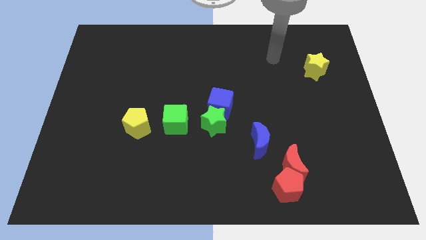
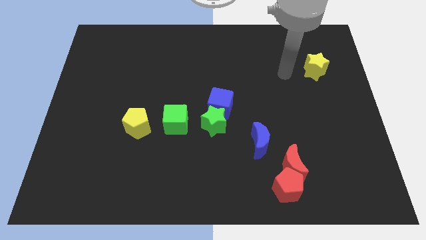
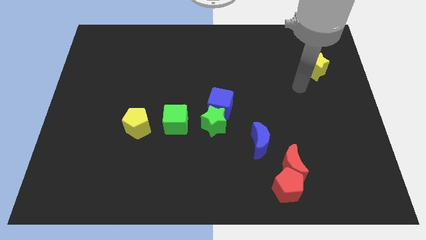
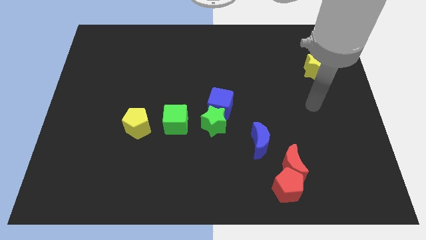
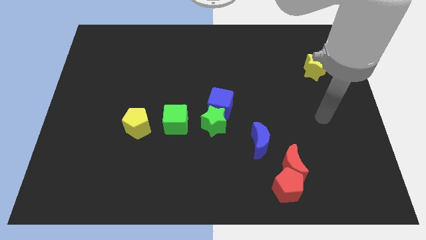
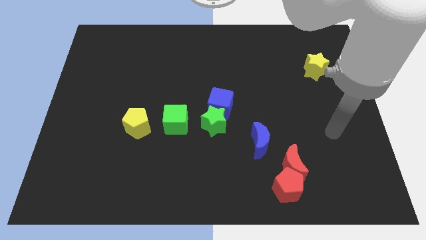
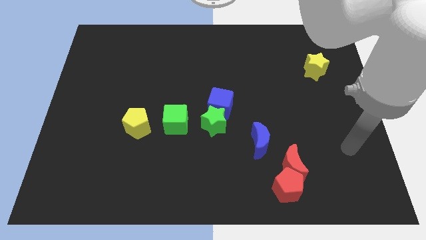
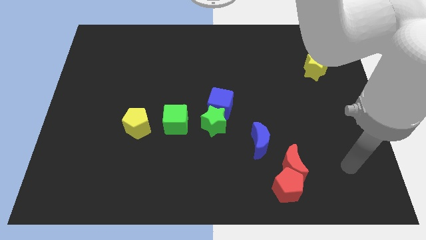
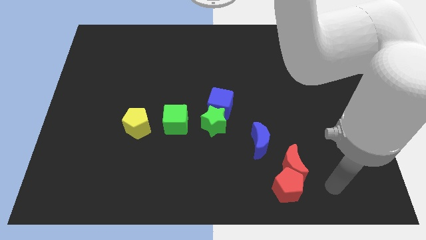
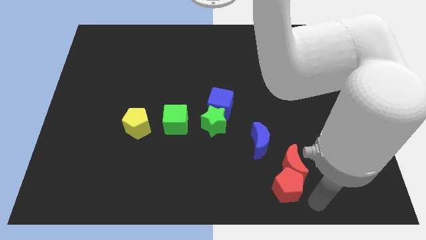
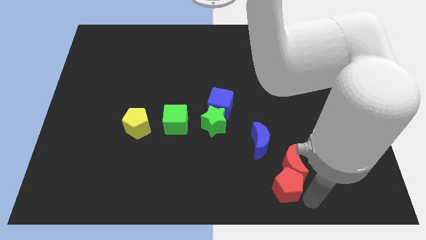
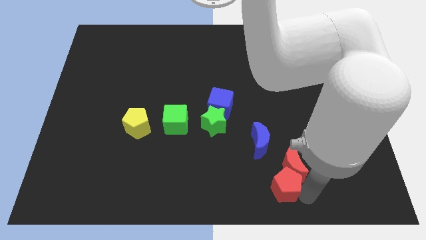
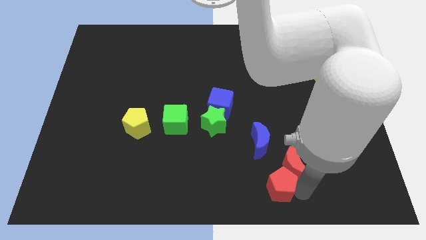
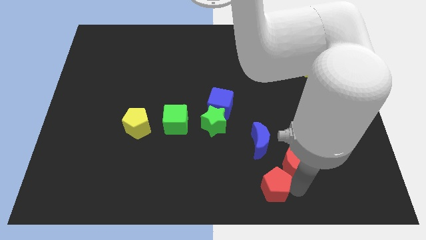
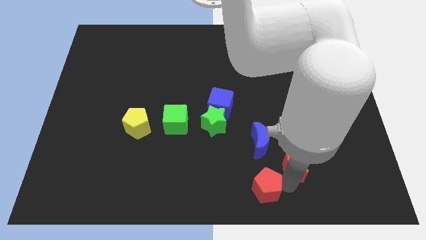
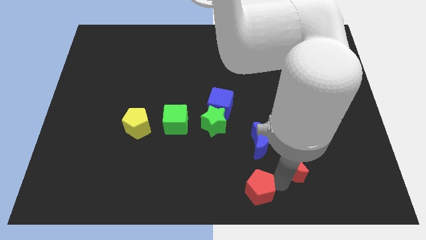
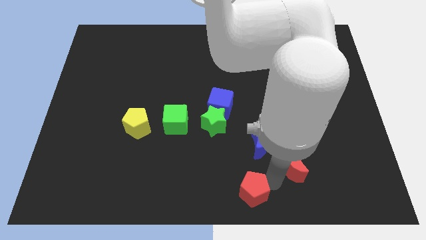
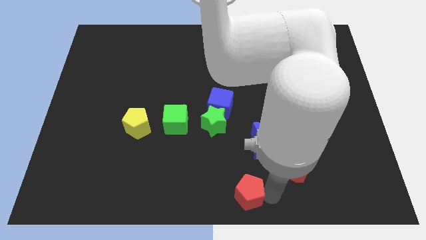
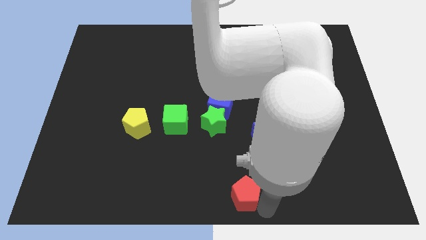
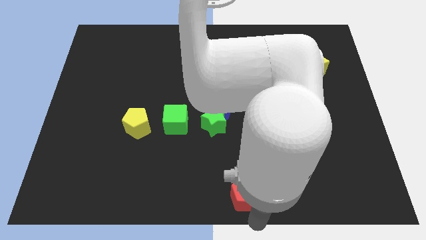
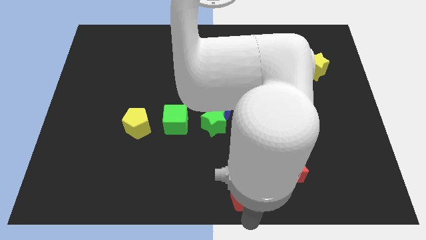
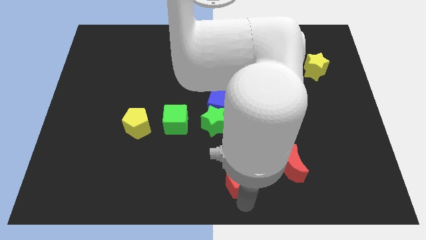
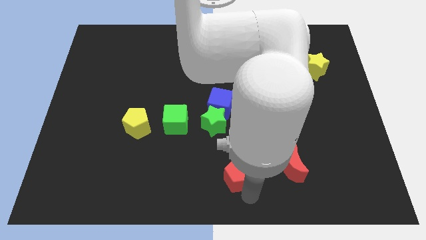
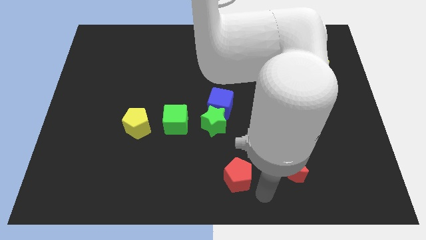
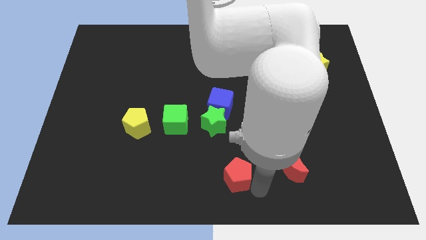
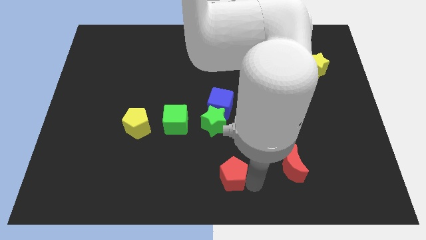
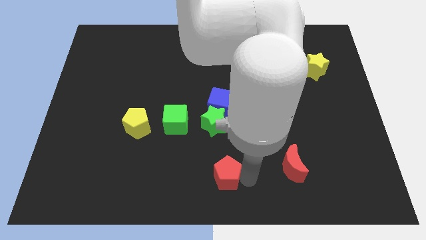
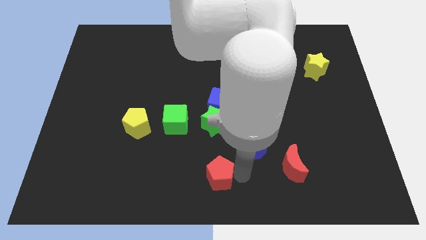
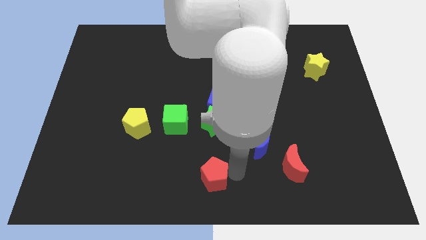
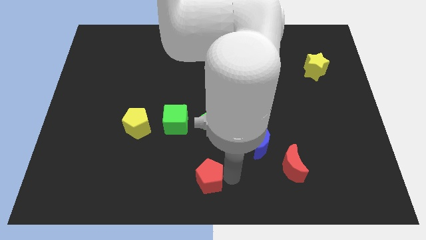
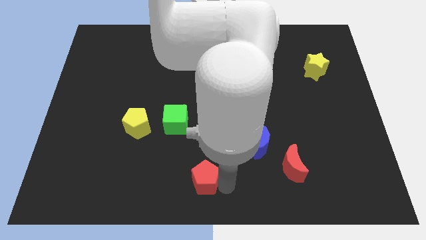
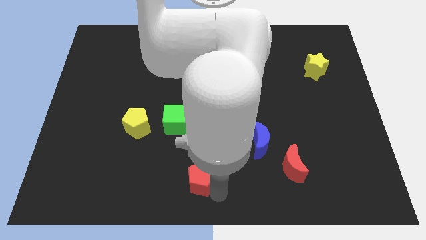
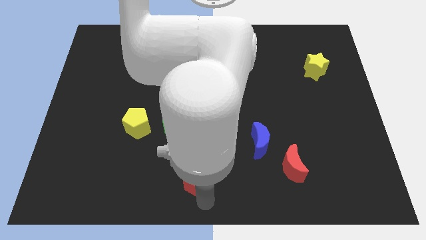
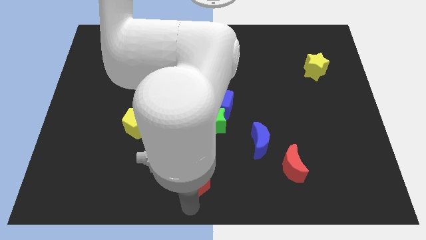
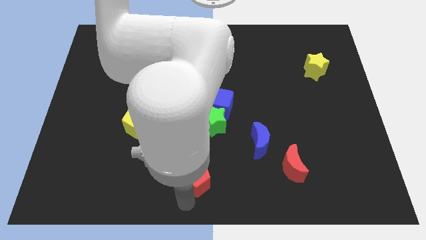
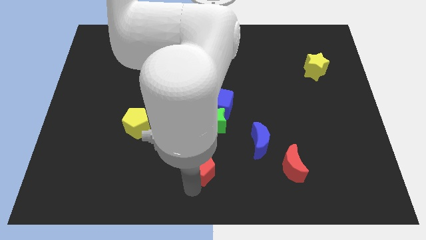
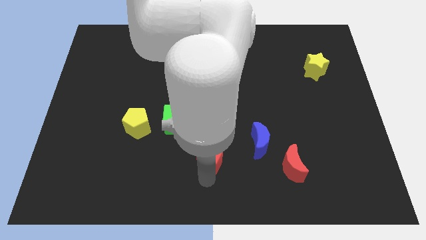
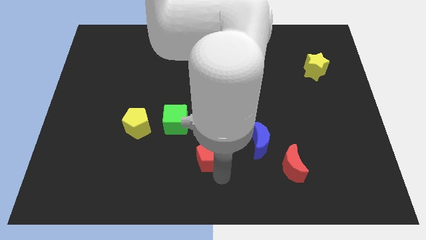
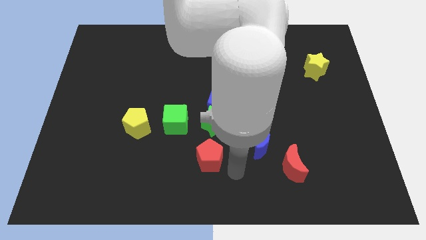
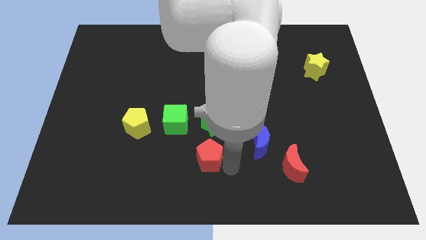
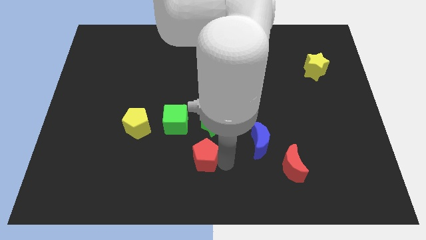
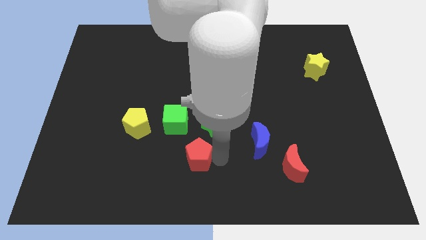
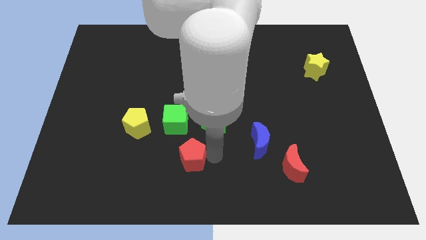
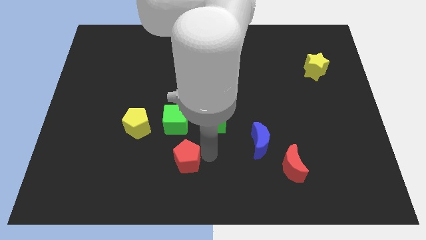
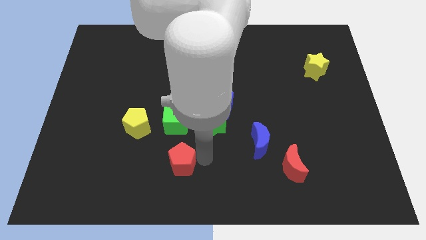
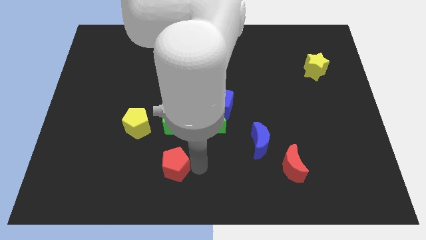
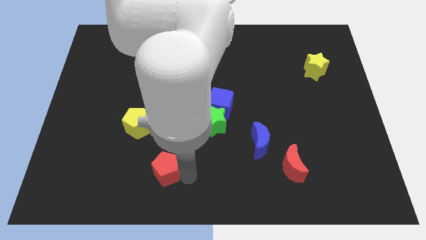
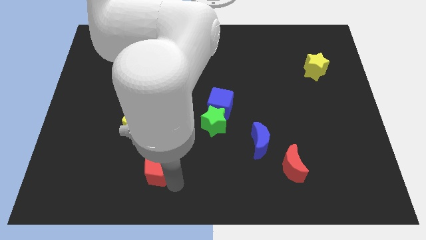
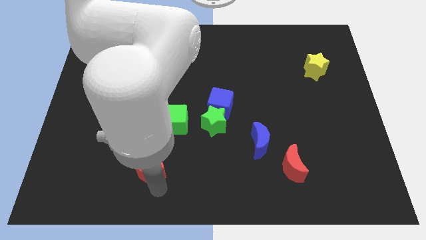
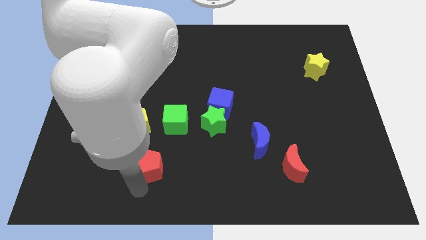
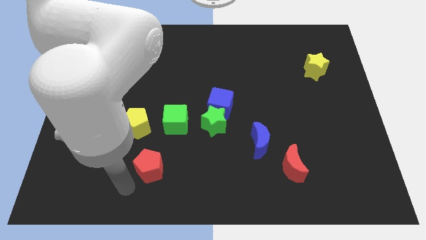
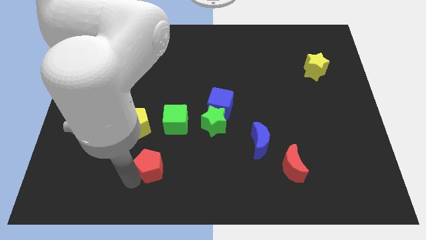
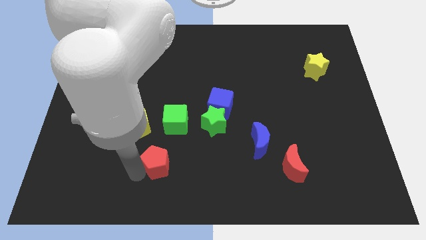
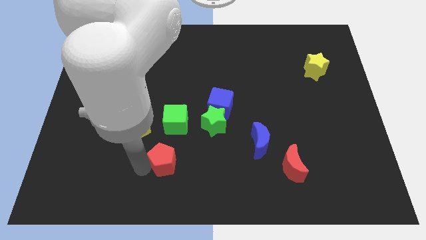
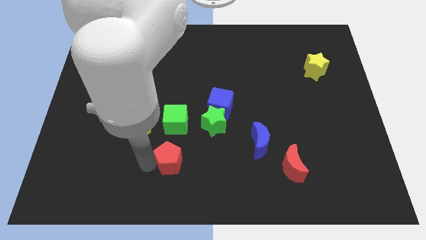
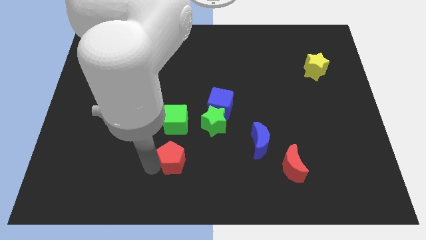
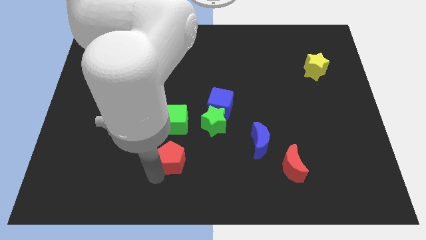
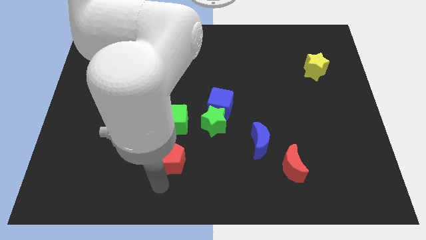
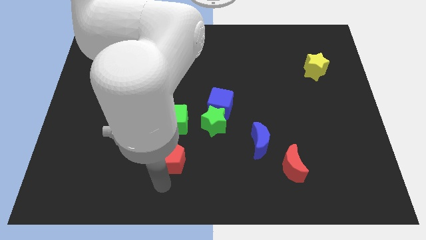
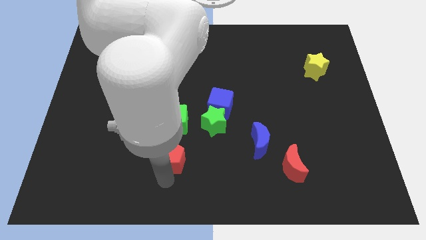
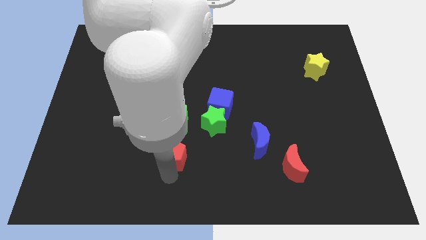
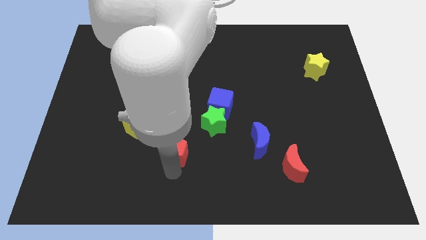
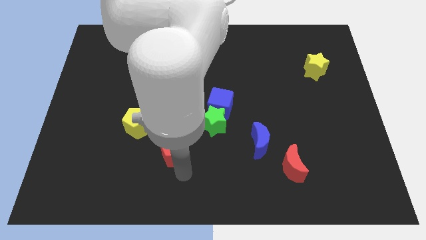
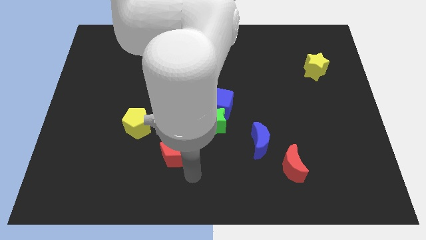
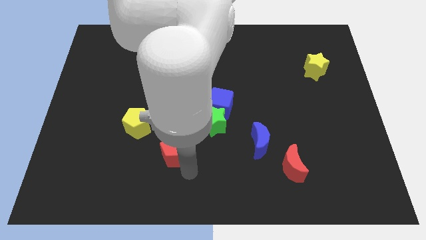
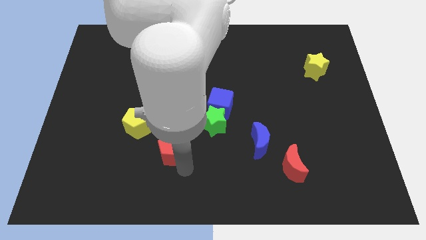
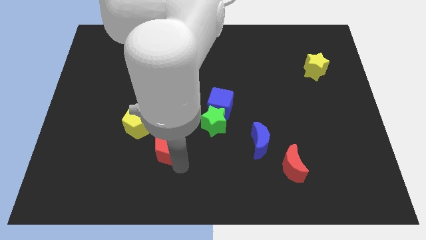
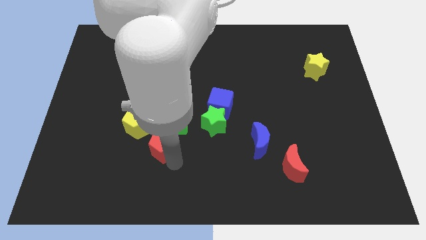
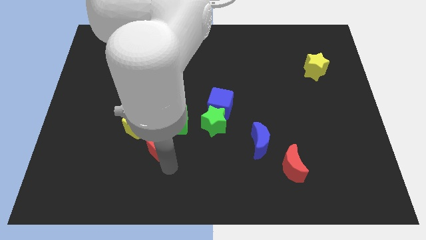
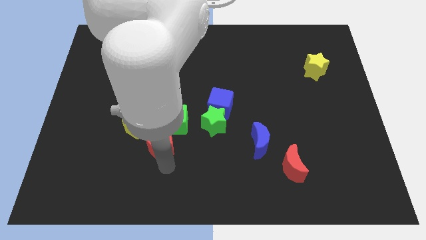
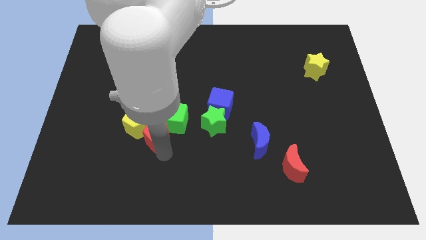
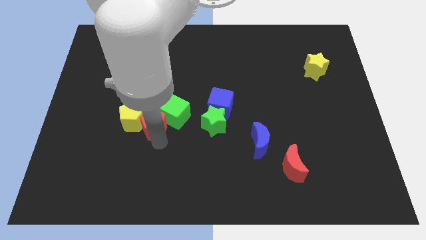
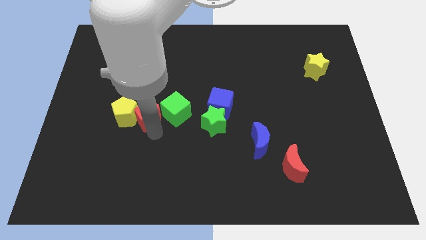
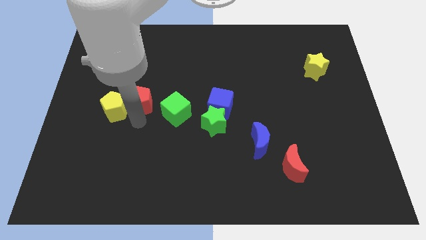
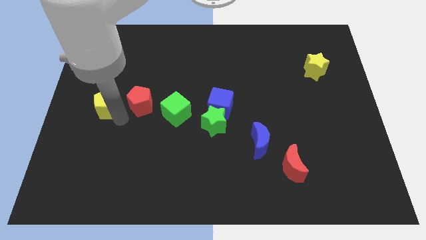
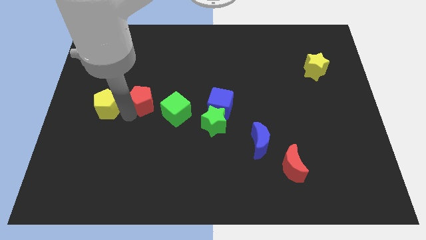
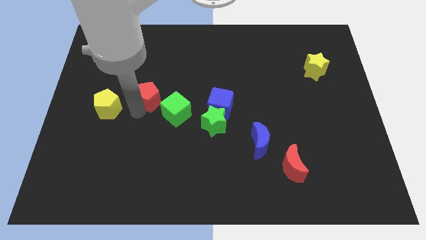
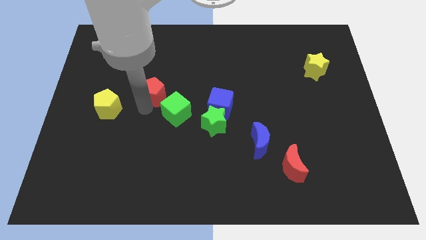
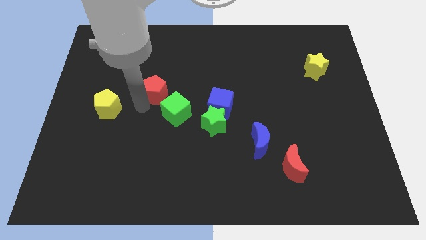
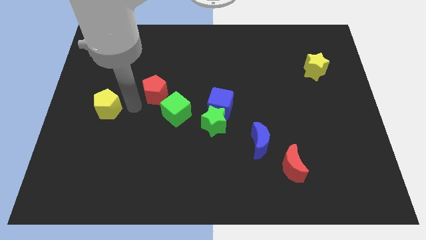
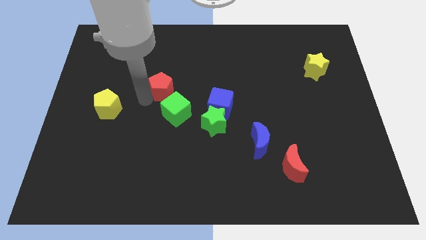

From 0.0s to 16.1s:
slide the red pentagon to the top side of the green cube
